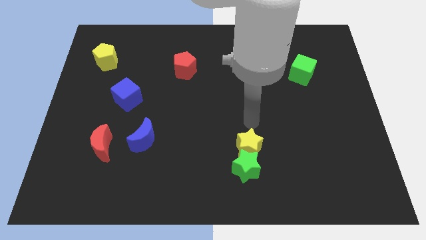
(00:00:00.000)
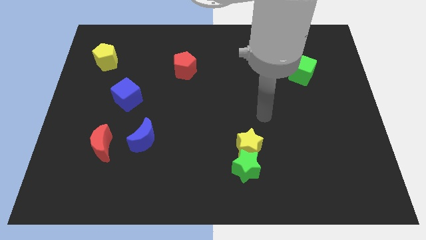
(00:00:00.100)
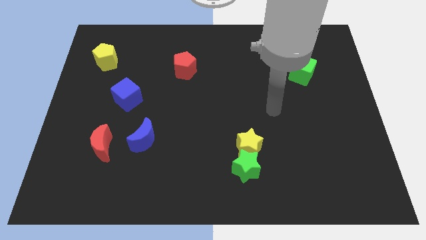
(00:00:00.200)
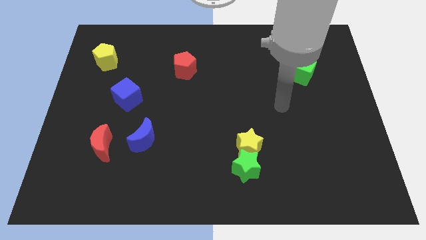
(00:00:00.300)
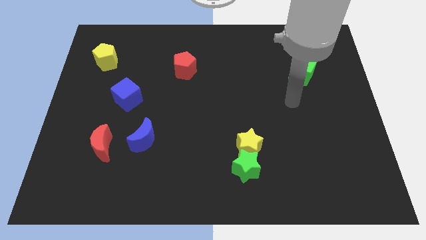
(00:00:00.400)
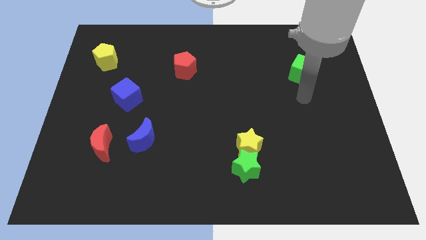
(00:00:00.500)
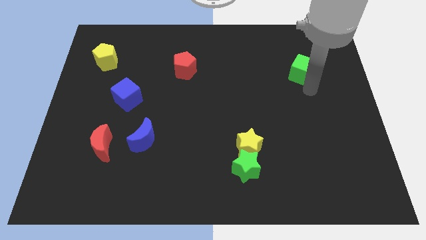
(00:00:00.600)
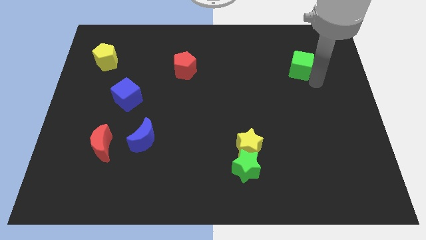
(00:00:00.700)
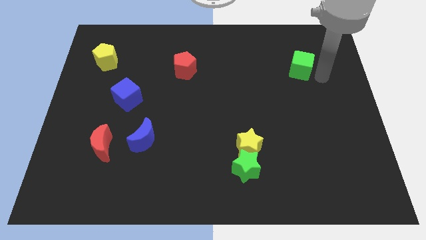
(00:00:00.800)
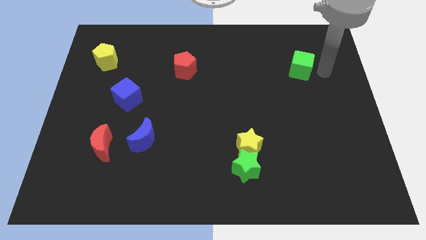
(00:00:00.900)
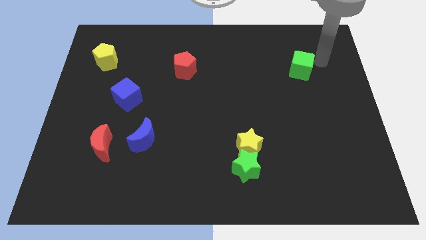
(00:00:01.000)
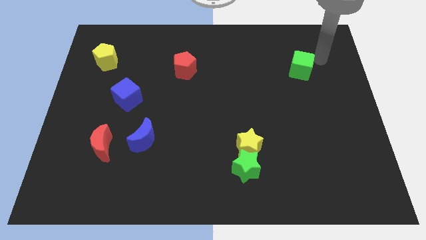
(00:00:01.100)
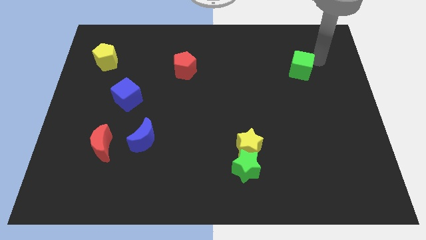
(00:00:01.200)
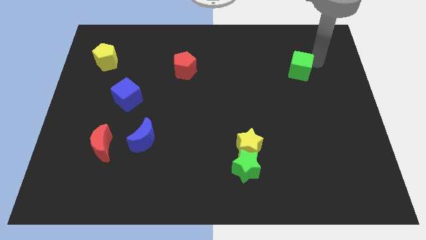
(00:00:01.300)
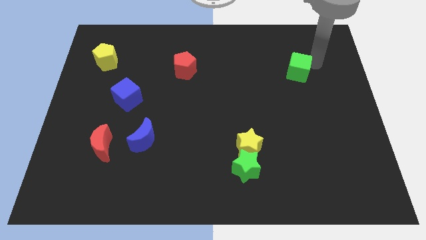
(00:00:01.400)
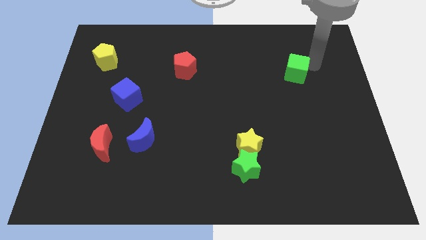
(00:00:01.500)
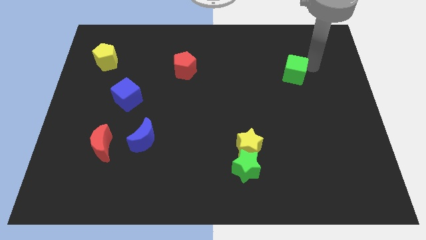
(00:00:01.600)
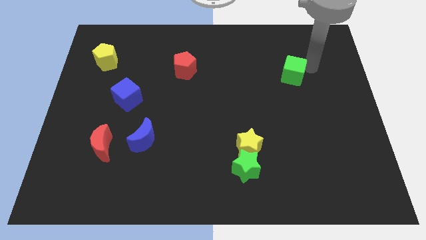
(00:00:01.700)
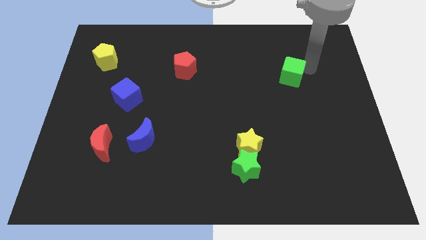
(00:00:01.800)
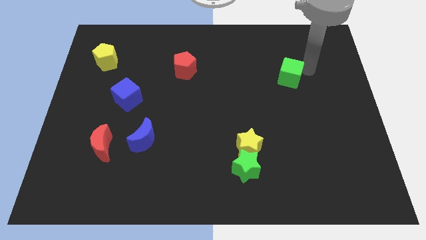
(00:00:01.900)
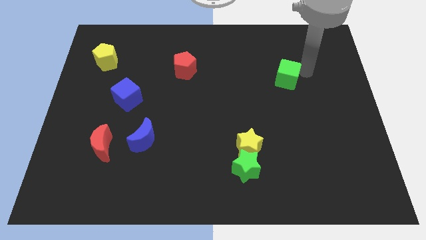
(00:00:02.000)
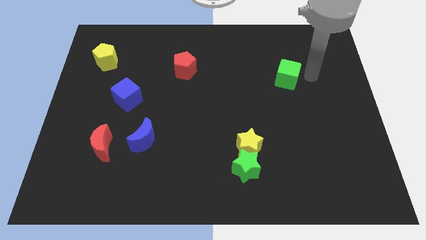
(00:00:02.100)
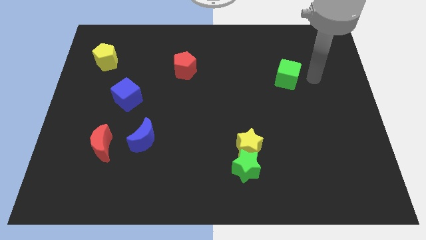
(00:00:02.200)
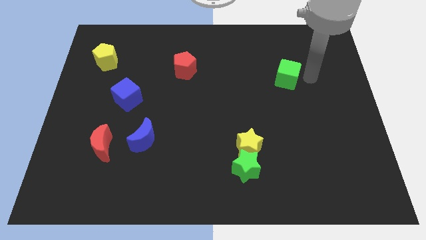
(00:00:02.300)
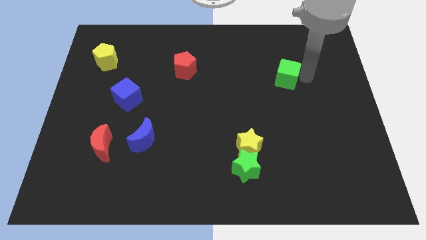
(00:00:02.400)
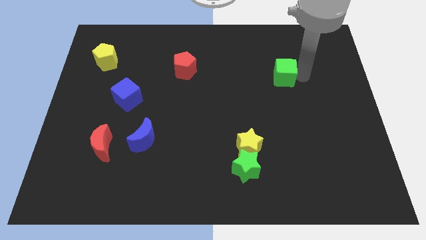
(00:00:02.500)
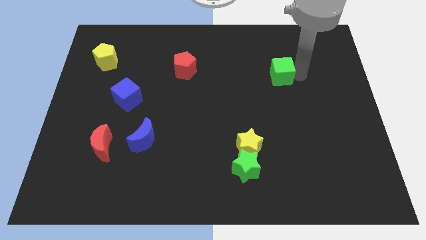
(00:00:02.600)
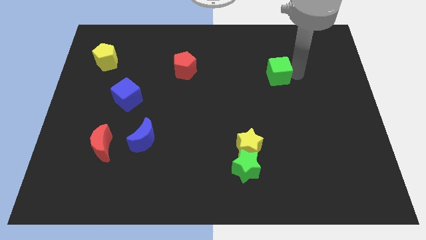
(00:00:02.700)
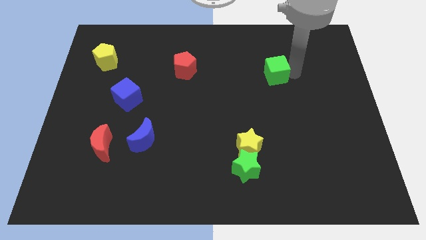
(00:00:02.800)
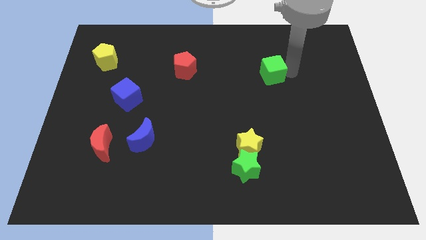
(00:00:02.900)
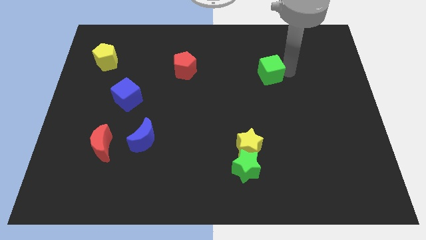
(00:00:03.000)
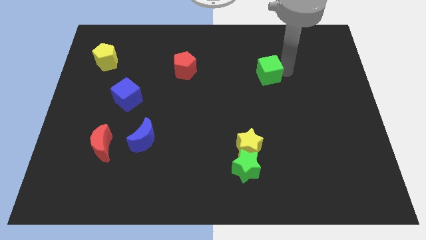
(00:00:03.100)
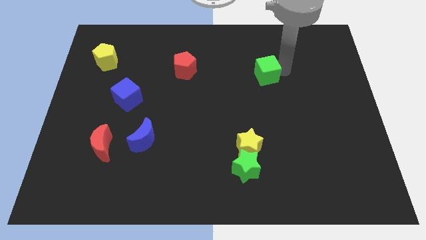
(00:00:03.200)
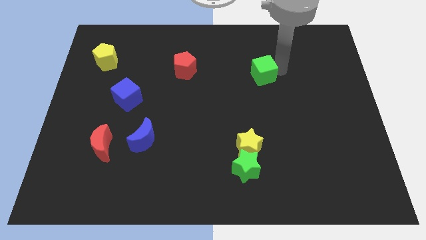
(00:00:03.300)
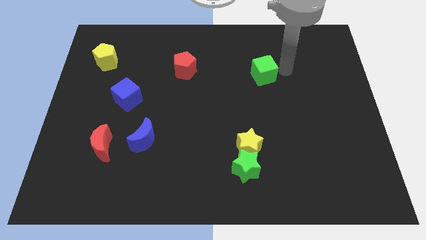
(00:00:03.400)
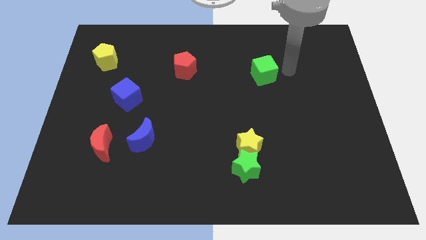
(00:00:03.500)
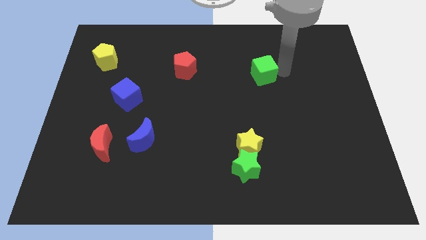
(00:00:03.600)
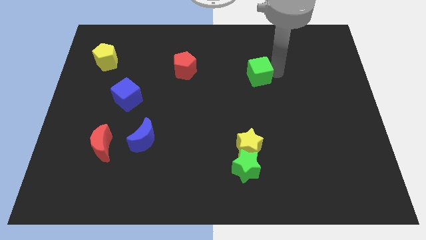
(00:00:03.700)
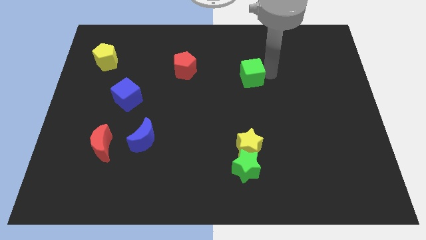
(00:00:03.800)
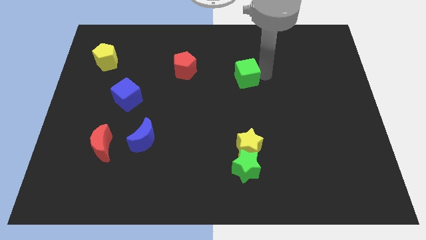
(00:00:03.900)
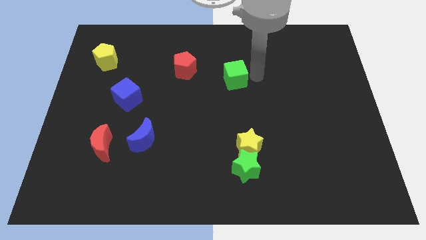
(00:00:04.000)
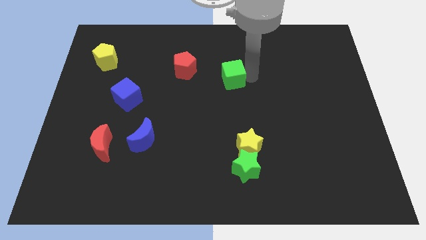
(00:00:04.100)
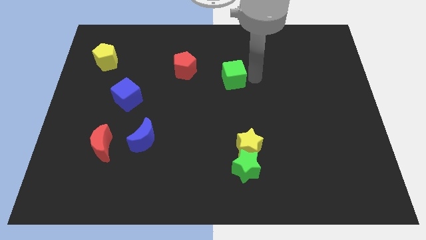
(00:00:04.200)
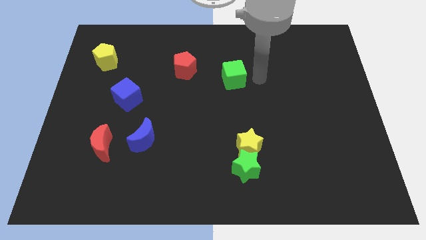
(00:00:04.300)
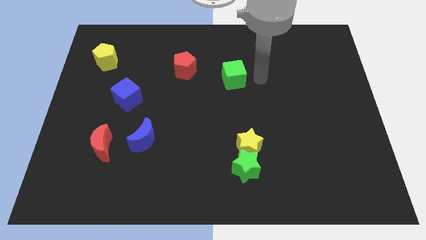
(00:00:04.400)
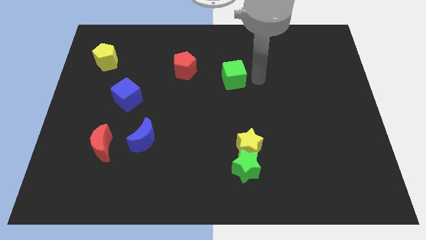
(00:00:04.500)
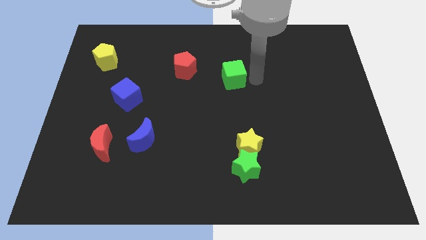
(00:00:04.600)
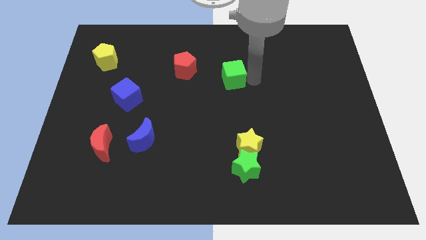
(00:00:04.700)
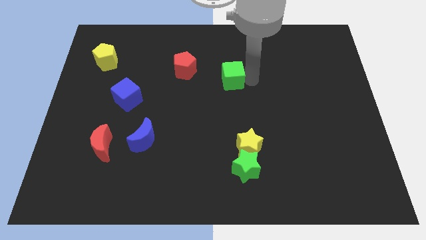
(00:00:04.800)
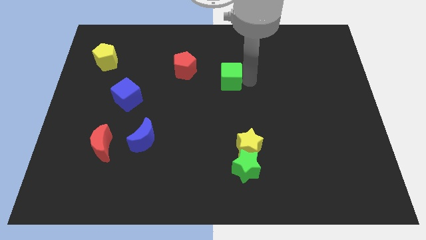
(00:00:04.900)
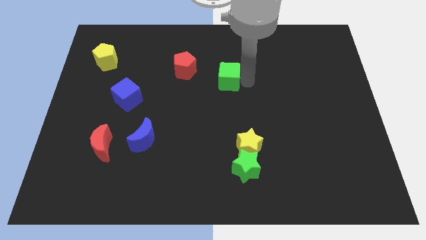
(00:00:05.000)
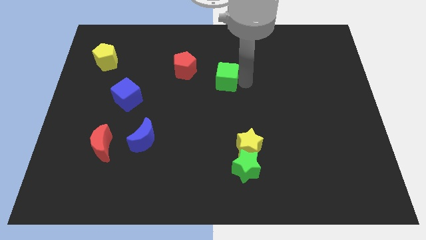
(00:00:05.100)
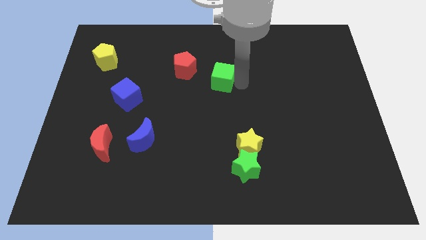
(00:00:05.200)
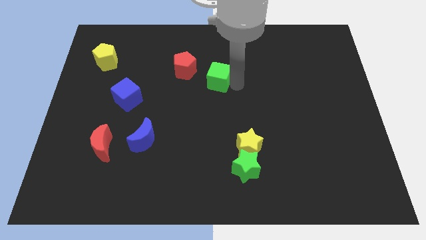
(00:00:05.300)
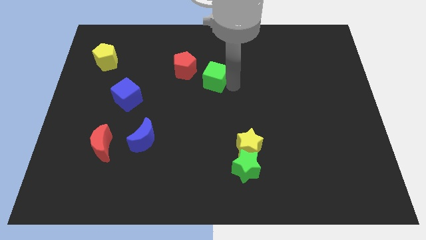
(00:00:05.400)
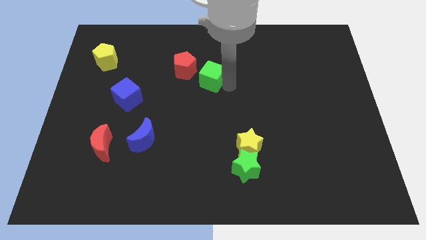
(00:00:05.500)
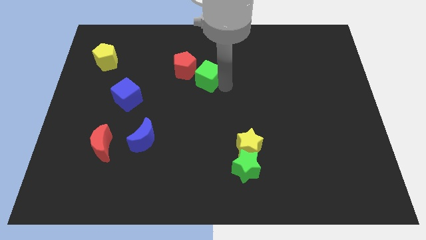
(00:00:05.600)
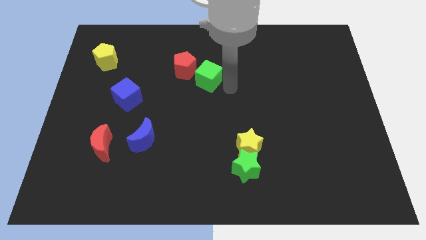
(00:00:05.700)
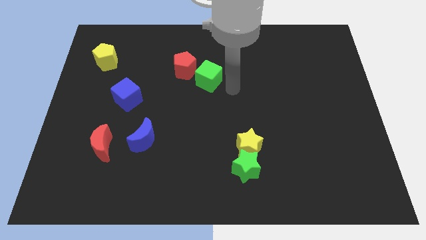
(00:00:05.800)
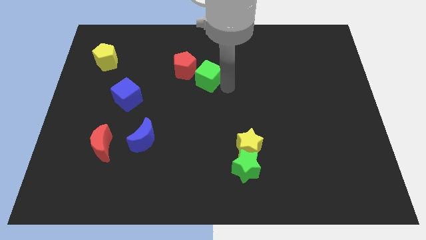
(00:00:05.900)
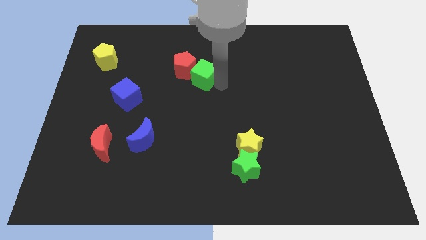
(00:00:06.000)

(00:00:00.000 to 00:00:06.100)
move the green cube towards the red pentagon

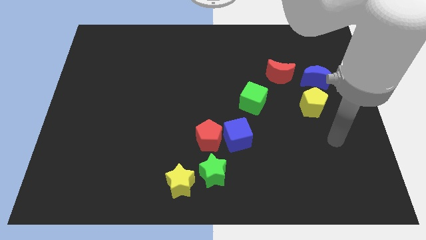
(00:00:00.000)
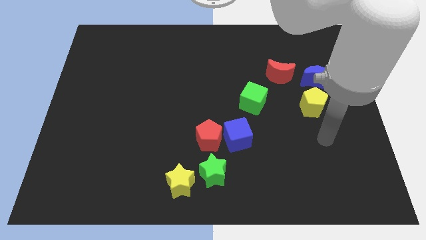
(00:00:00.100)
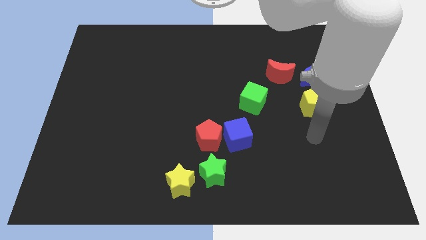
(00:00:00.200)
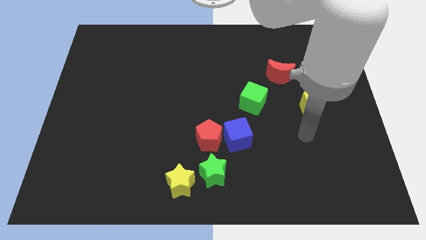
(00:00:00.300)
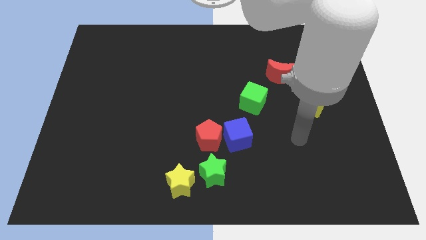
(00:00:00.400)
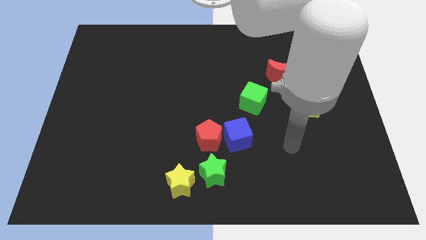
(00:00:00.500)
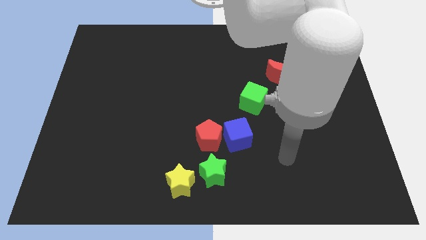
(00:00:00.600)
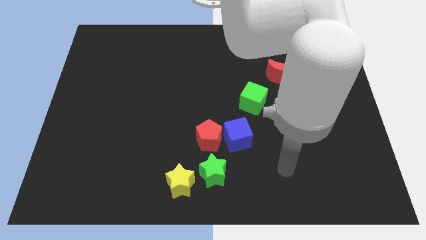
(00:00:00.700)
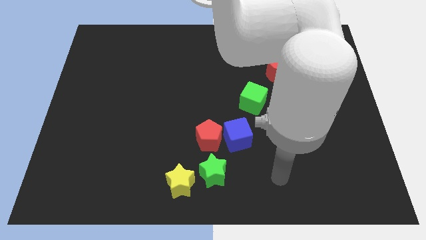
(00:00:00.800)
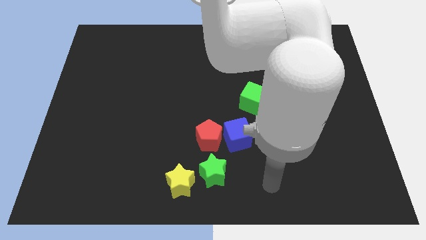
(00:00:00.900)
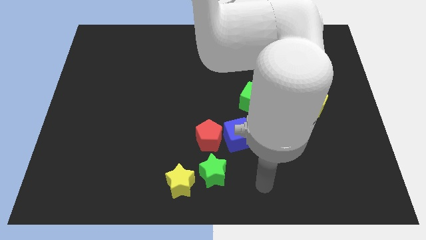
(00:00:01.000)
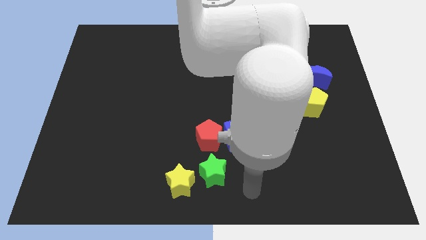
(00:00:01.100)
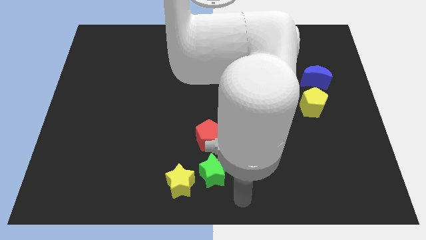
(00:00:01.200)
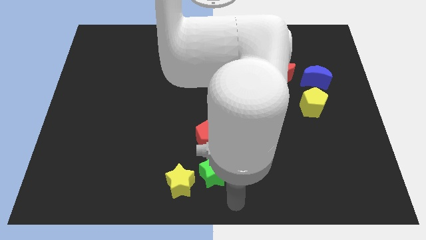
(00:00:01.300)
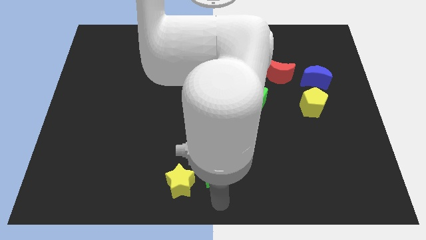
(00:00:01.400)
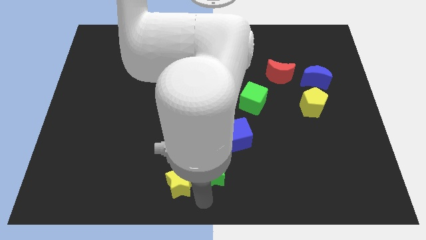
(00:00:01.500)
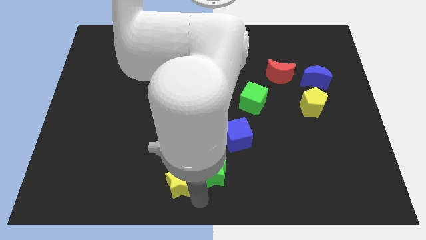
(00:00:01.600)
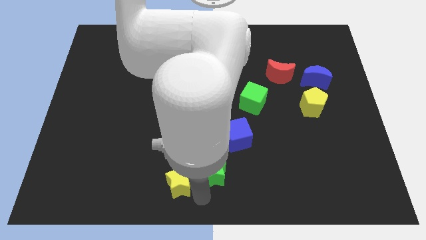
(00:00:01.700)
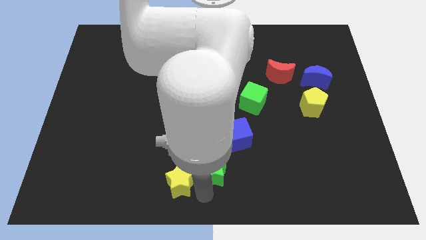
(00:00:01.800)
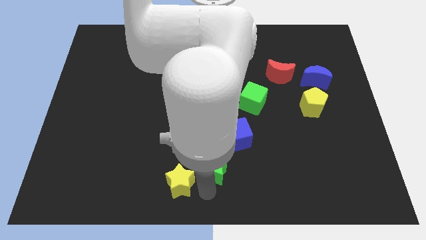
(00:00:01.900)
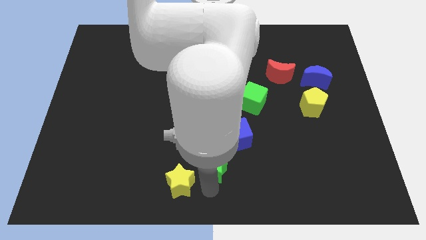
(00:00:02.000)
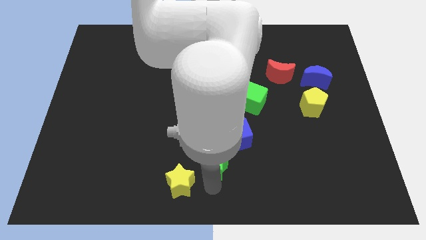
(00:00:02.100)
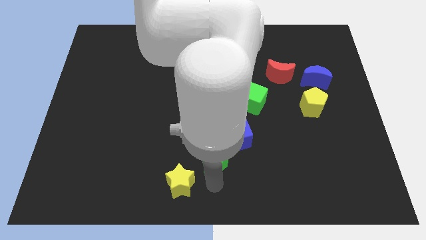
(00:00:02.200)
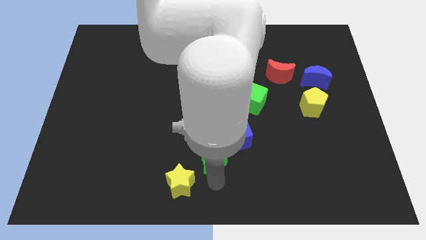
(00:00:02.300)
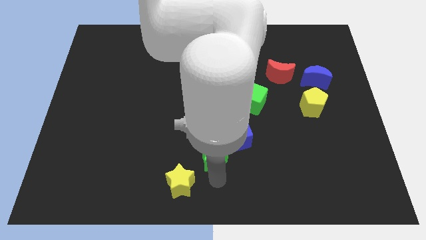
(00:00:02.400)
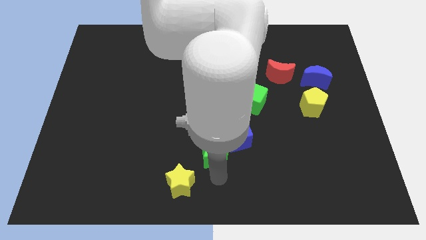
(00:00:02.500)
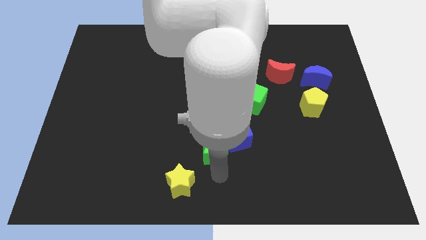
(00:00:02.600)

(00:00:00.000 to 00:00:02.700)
push the green star to the blue cube
